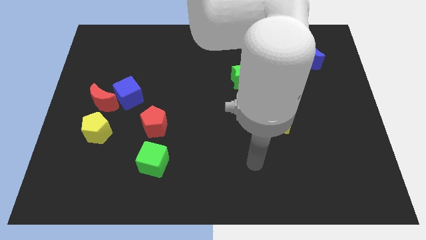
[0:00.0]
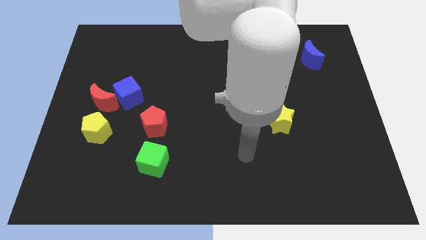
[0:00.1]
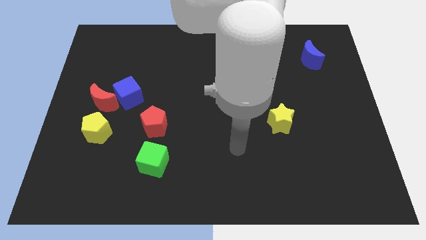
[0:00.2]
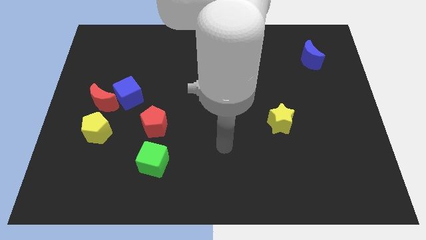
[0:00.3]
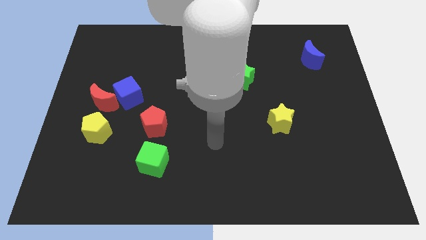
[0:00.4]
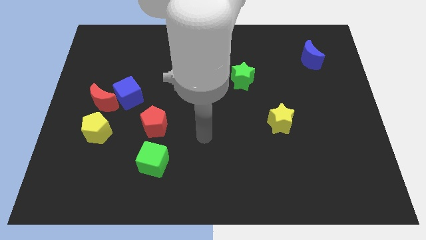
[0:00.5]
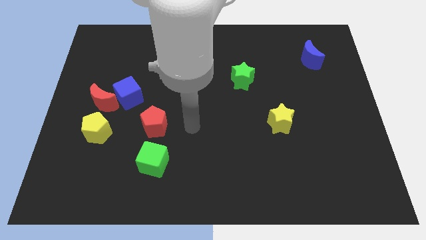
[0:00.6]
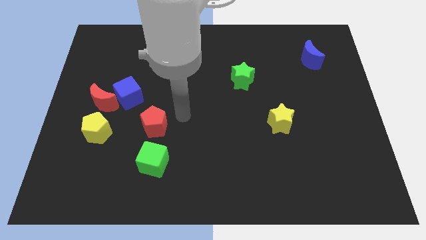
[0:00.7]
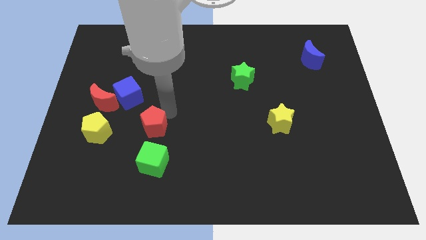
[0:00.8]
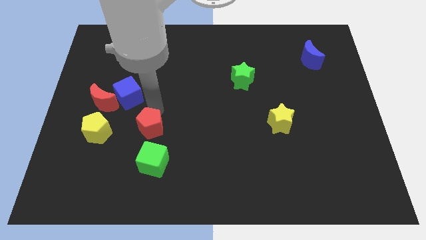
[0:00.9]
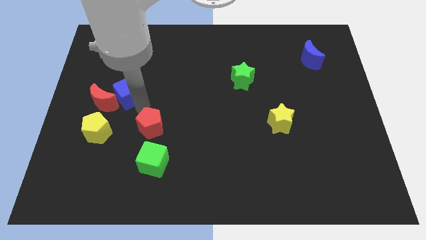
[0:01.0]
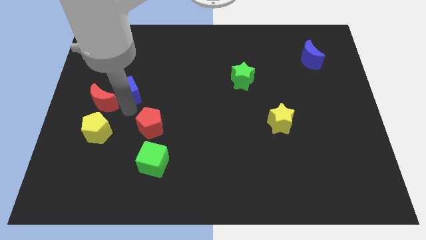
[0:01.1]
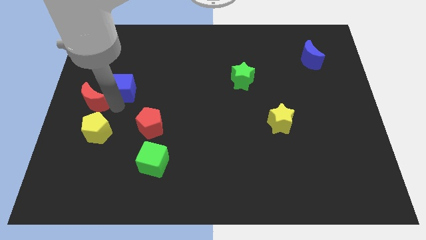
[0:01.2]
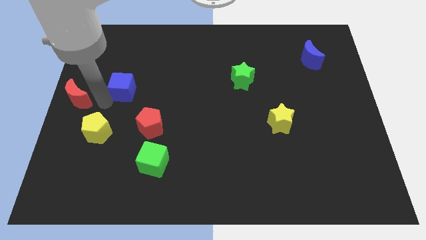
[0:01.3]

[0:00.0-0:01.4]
pull the blue cube apart from the red moon

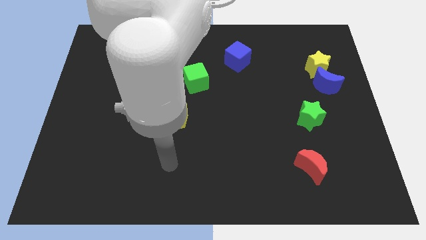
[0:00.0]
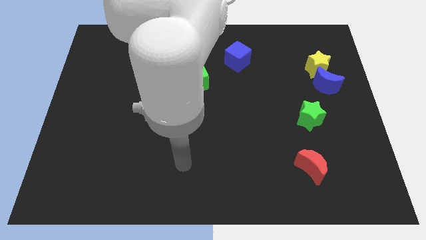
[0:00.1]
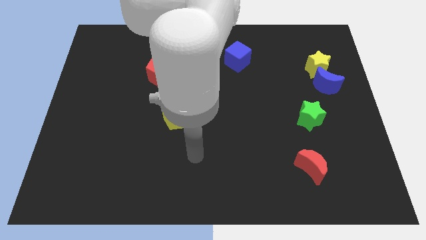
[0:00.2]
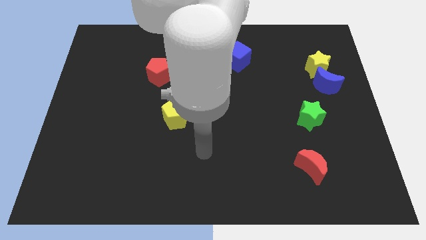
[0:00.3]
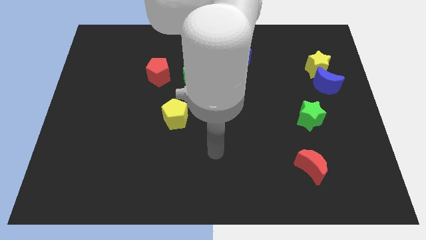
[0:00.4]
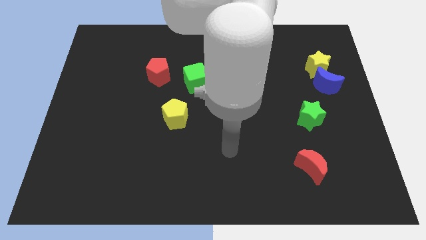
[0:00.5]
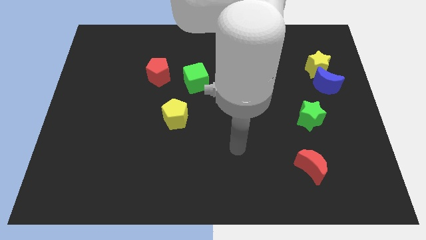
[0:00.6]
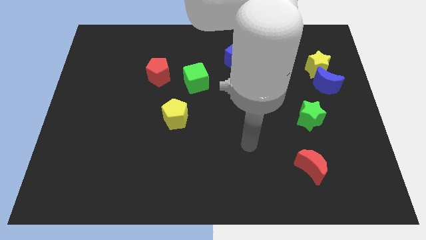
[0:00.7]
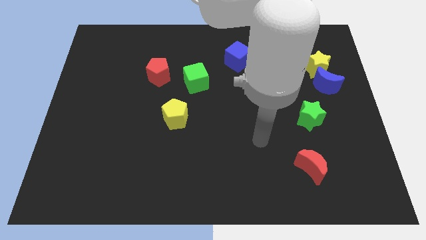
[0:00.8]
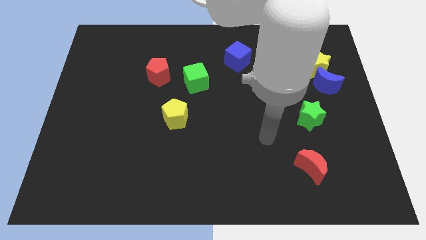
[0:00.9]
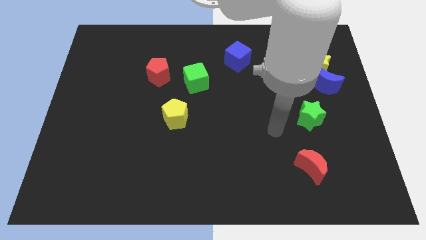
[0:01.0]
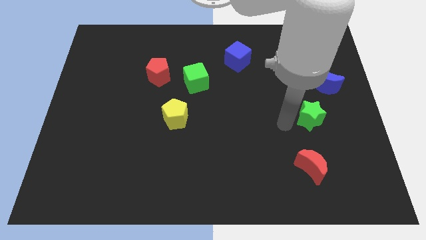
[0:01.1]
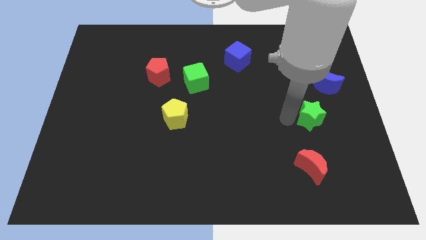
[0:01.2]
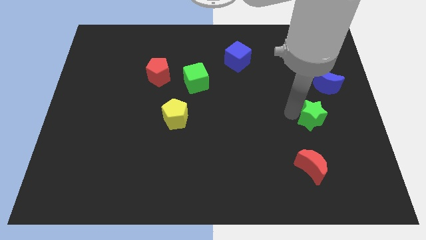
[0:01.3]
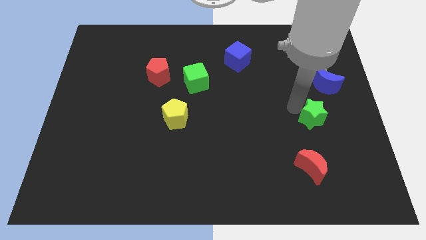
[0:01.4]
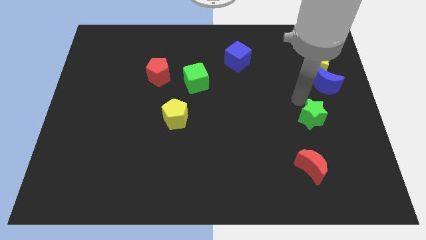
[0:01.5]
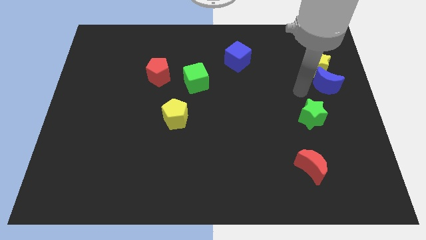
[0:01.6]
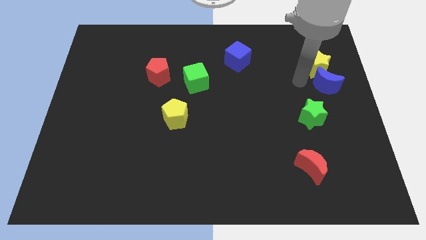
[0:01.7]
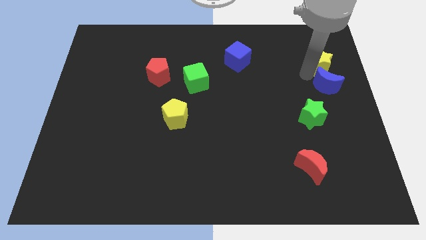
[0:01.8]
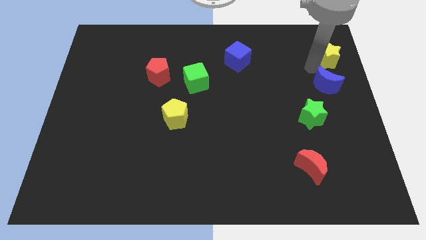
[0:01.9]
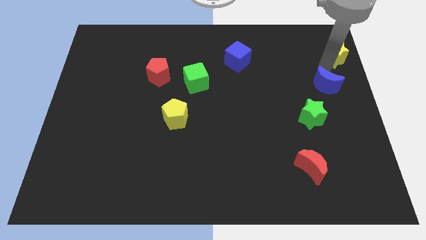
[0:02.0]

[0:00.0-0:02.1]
separate the blue moon from the yellow star

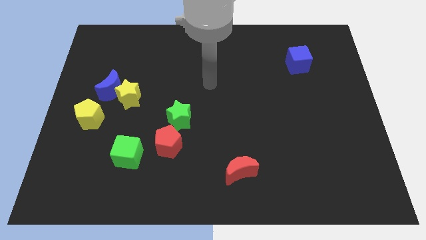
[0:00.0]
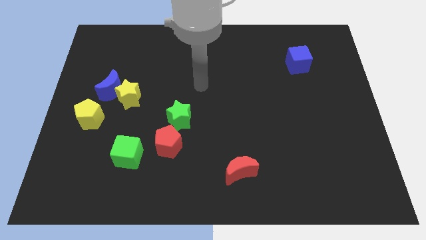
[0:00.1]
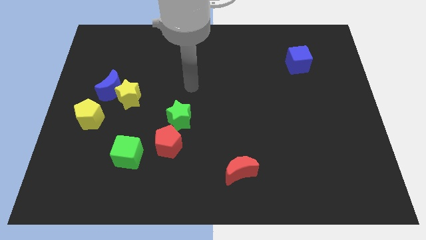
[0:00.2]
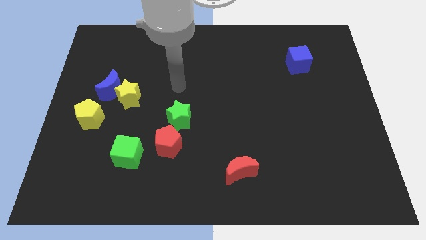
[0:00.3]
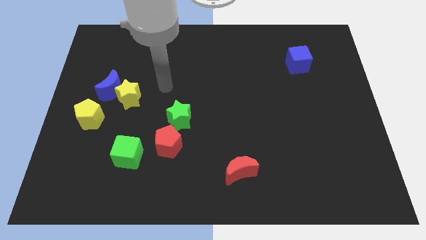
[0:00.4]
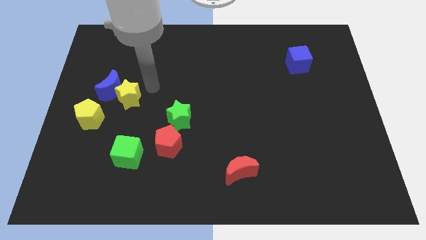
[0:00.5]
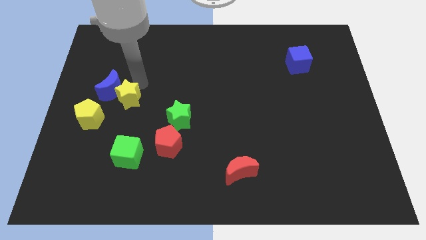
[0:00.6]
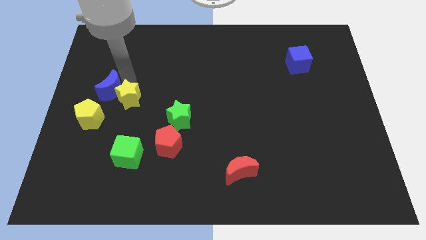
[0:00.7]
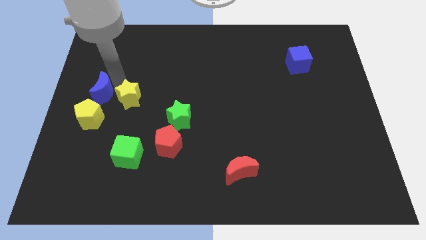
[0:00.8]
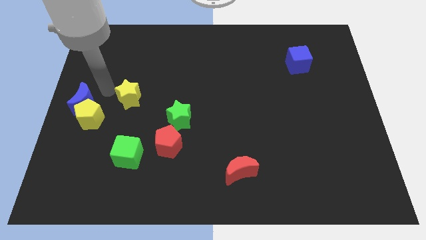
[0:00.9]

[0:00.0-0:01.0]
move the yellow star away from the blue moon

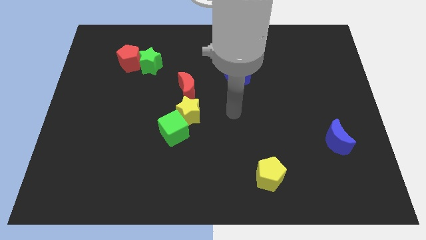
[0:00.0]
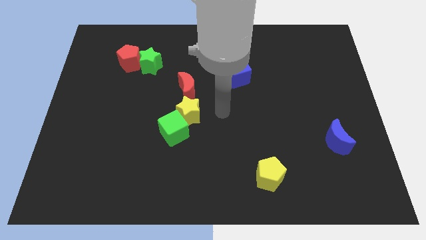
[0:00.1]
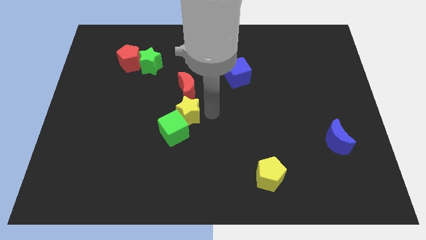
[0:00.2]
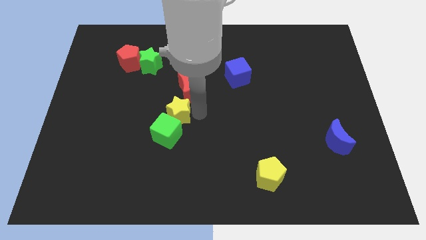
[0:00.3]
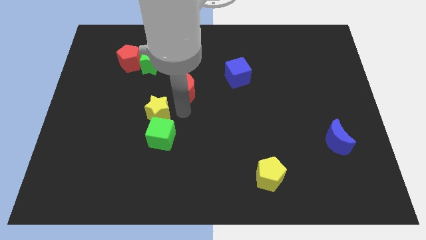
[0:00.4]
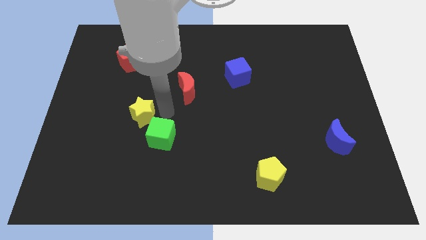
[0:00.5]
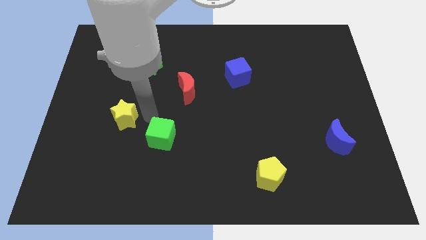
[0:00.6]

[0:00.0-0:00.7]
pull the green cube apart from the yellow star

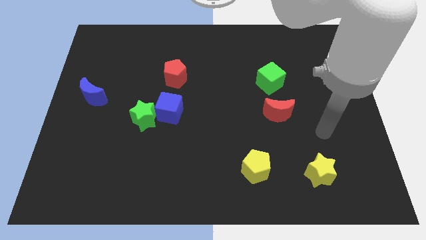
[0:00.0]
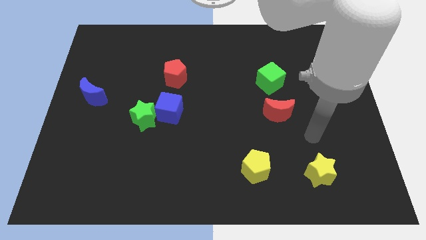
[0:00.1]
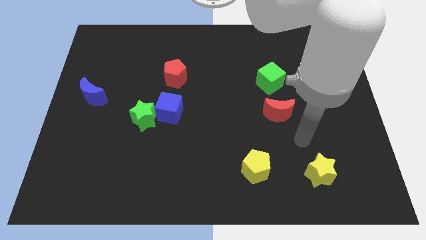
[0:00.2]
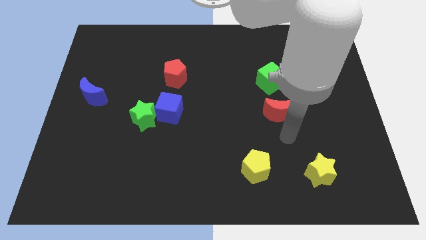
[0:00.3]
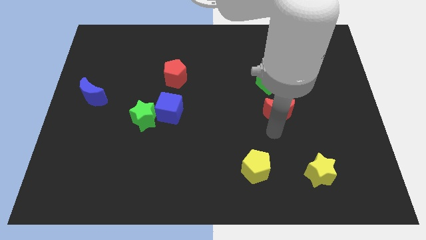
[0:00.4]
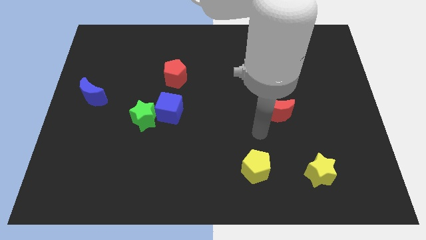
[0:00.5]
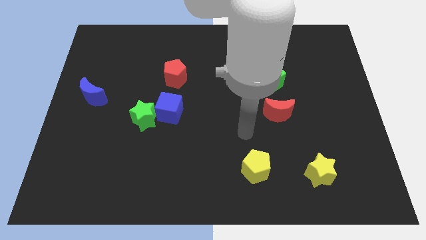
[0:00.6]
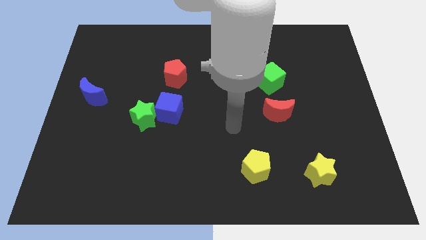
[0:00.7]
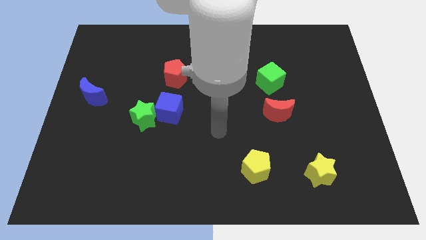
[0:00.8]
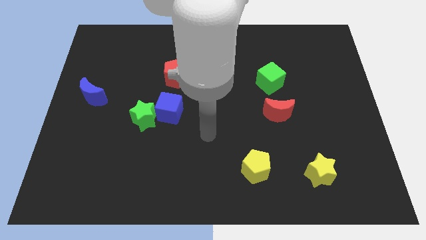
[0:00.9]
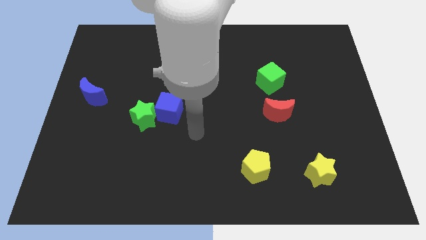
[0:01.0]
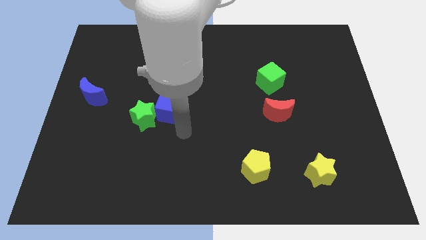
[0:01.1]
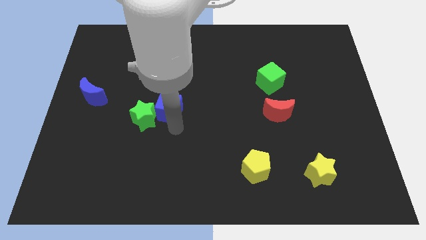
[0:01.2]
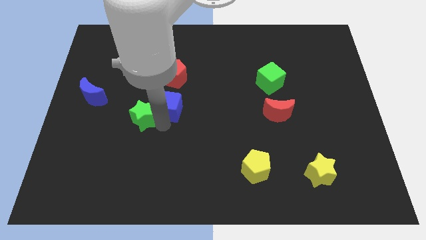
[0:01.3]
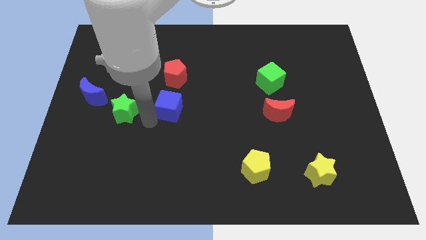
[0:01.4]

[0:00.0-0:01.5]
separate the blue cube from the green star

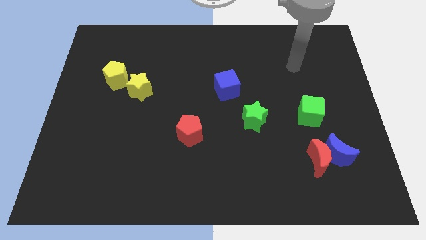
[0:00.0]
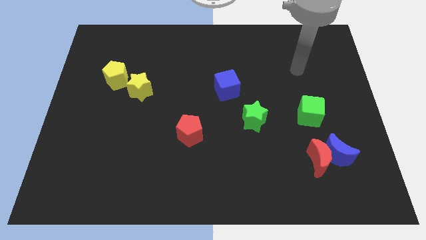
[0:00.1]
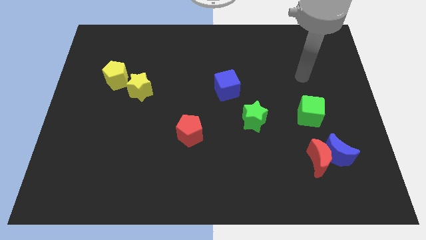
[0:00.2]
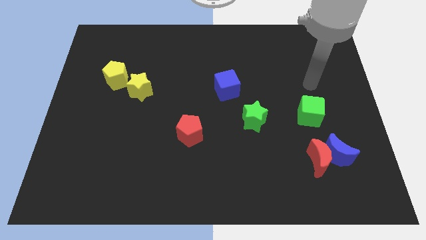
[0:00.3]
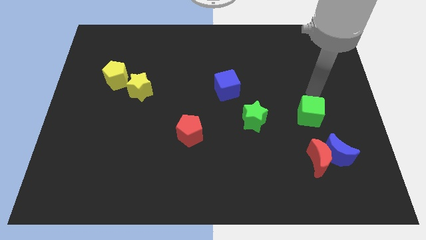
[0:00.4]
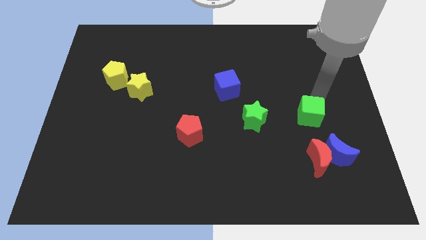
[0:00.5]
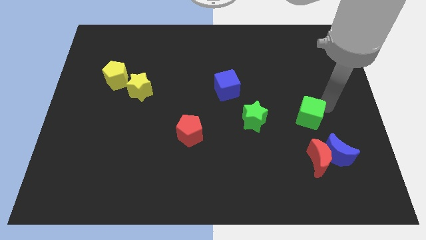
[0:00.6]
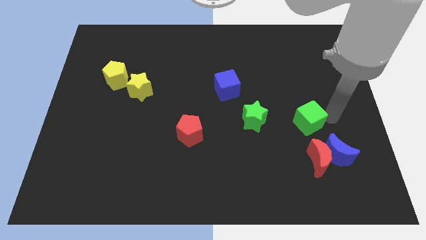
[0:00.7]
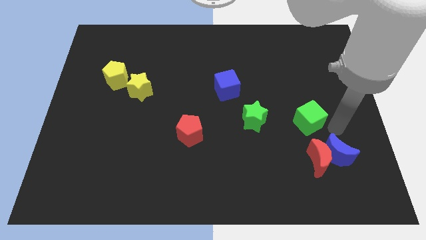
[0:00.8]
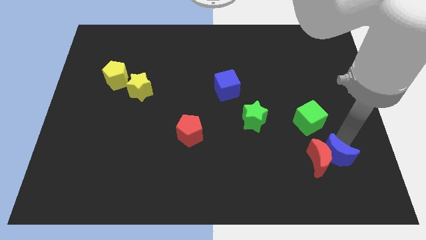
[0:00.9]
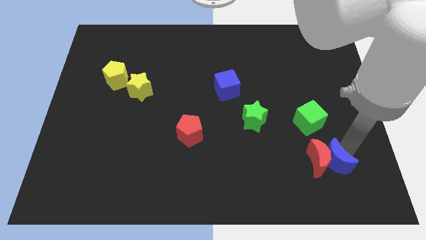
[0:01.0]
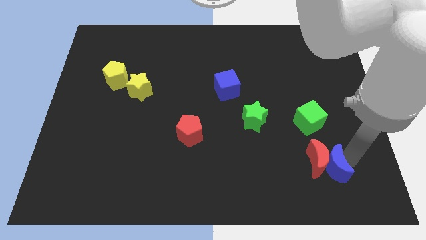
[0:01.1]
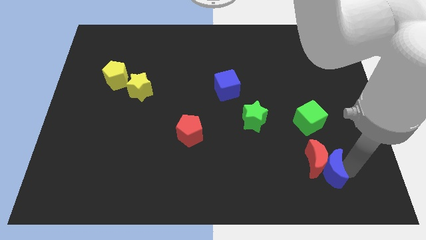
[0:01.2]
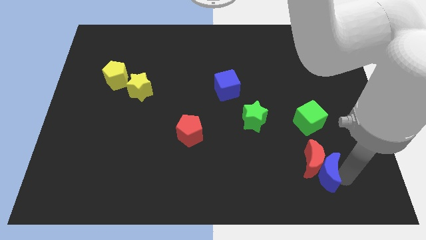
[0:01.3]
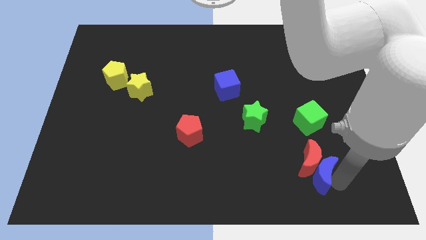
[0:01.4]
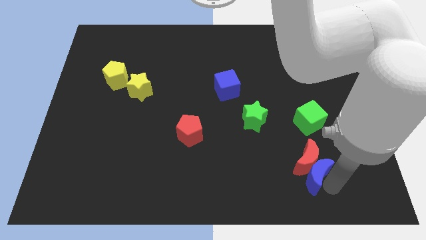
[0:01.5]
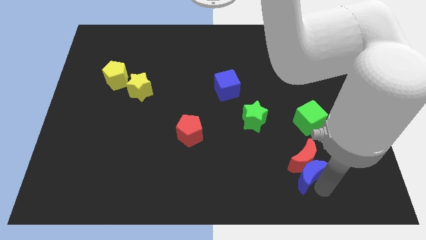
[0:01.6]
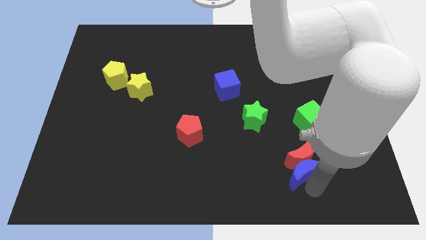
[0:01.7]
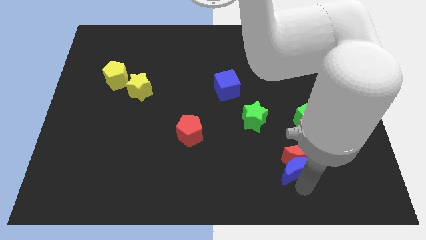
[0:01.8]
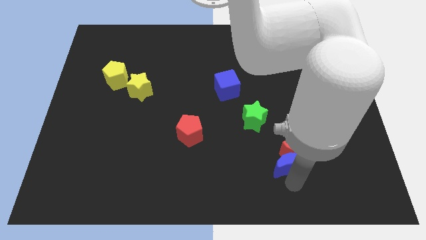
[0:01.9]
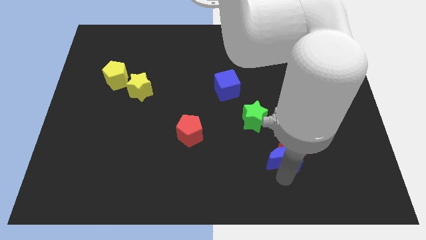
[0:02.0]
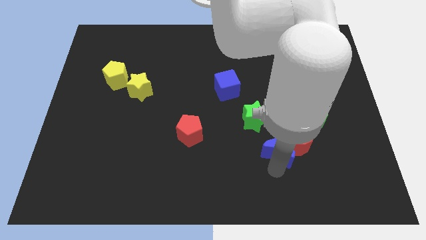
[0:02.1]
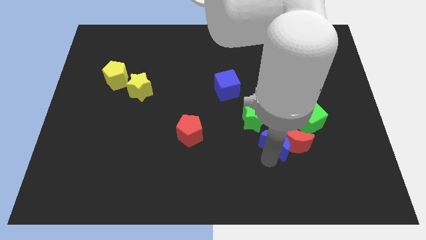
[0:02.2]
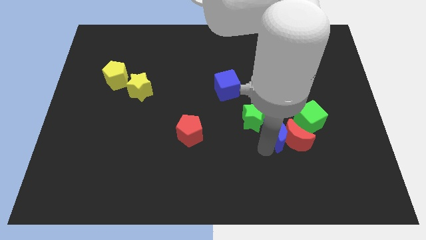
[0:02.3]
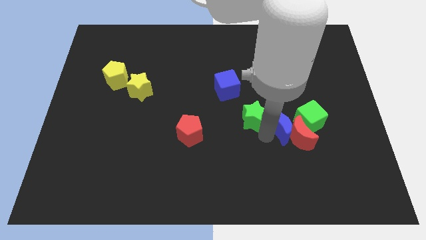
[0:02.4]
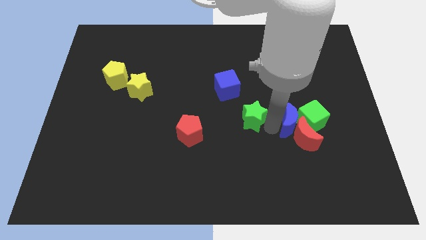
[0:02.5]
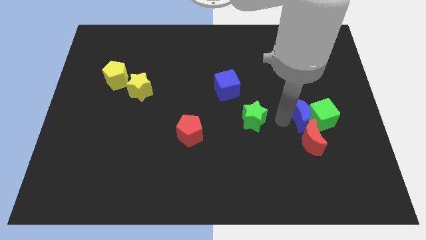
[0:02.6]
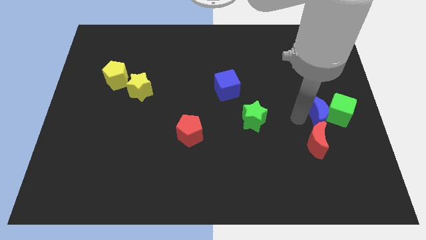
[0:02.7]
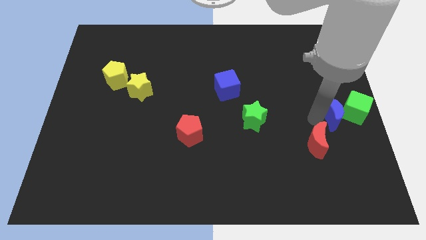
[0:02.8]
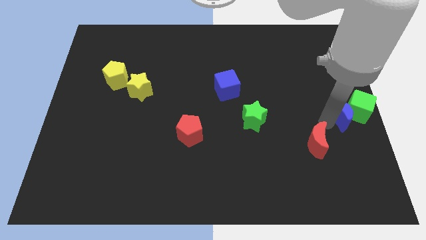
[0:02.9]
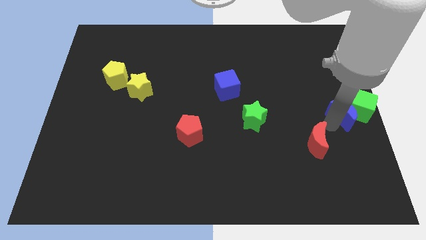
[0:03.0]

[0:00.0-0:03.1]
separate the red moon from the blue moon
